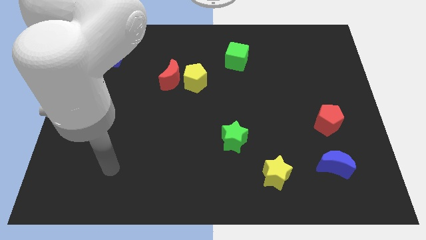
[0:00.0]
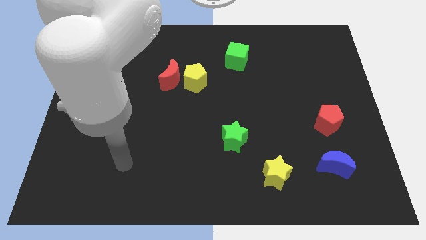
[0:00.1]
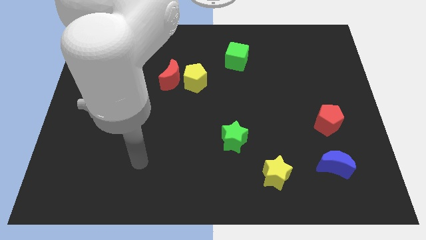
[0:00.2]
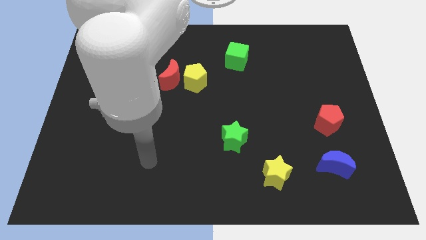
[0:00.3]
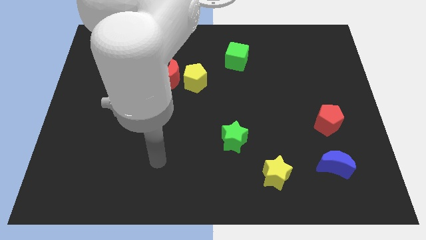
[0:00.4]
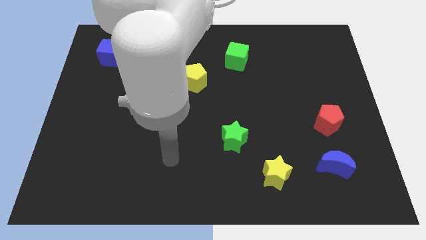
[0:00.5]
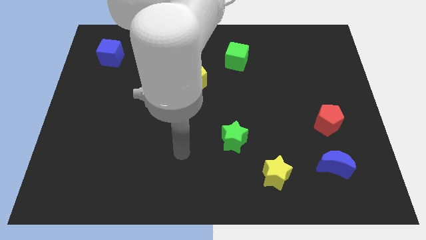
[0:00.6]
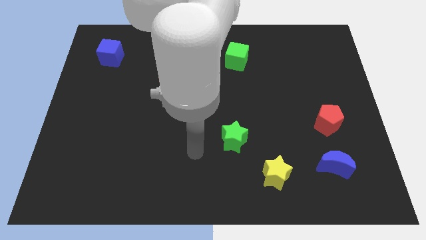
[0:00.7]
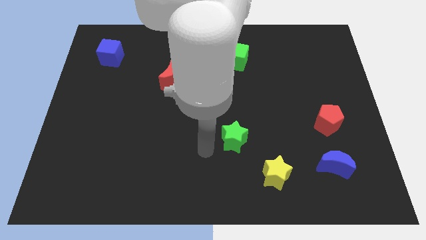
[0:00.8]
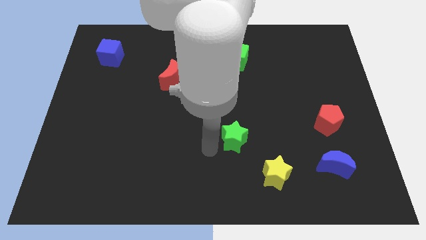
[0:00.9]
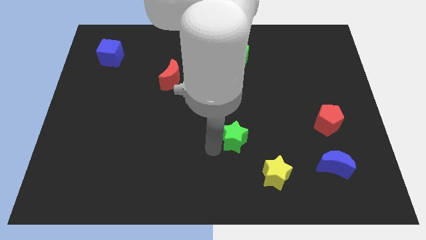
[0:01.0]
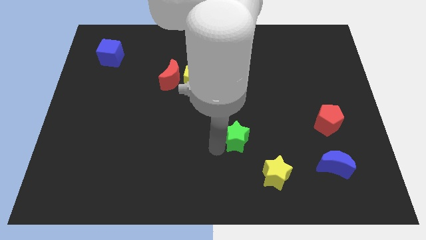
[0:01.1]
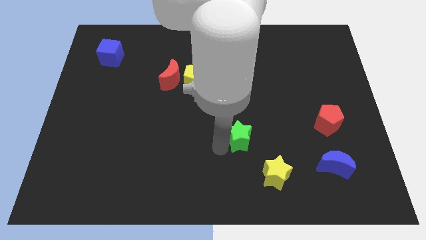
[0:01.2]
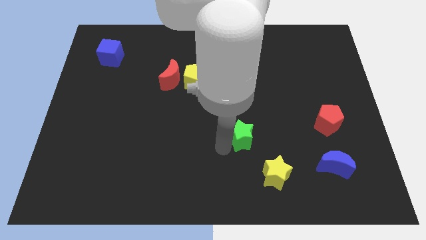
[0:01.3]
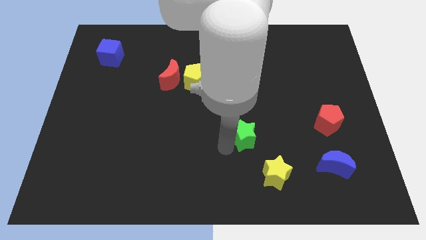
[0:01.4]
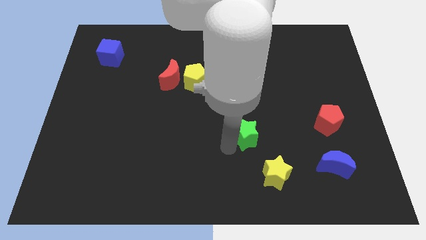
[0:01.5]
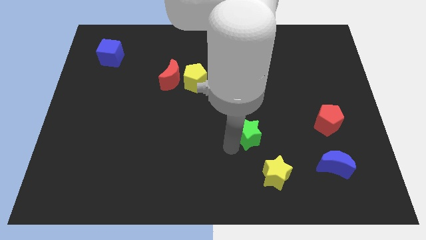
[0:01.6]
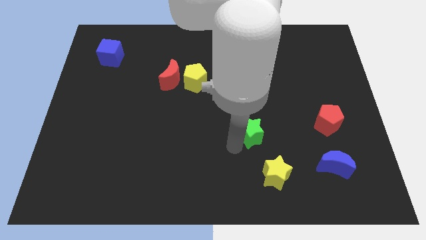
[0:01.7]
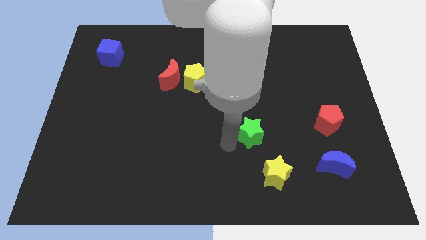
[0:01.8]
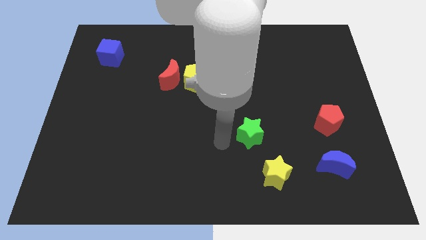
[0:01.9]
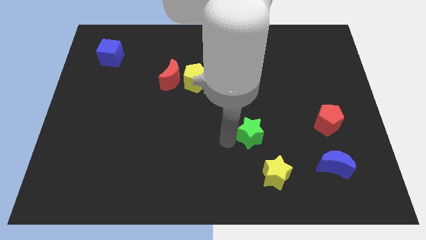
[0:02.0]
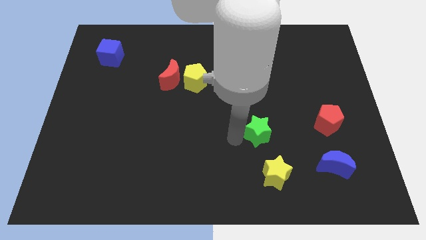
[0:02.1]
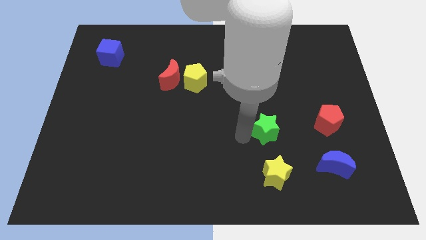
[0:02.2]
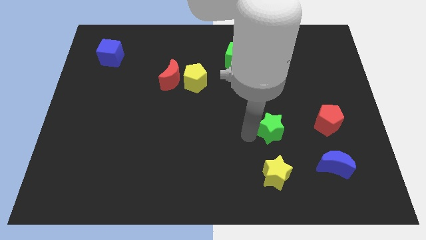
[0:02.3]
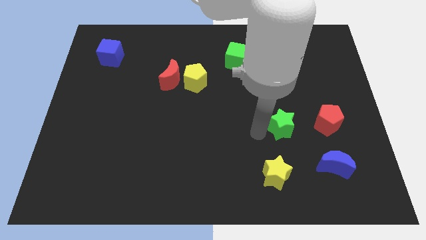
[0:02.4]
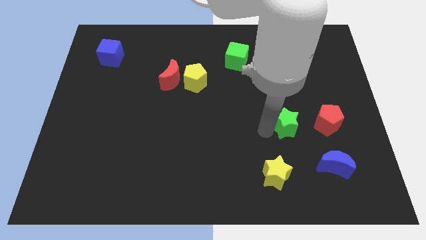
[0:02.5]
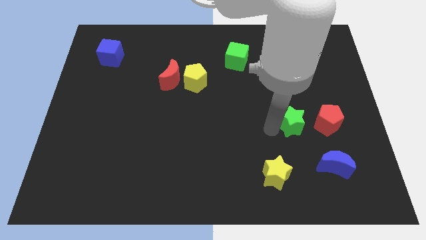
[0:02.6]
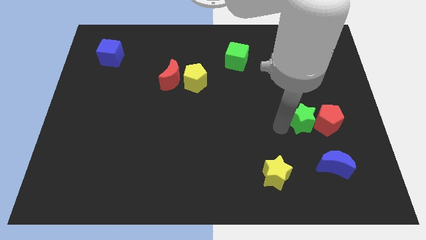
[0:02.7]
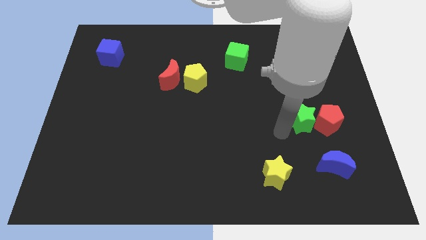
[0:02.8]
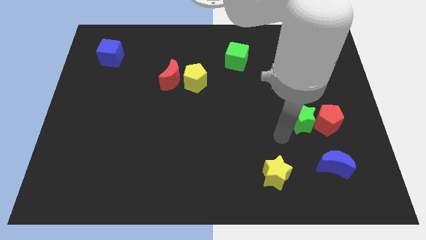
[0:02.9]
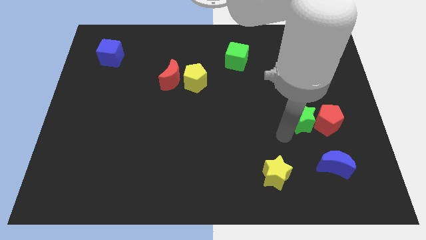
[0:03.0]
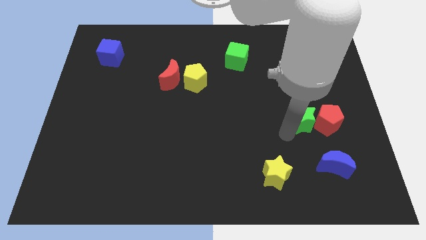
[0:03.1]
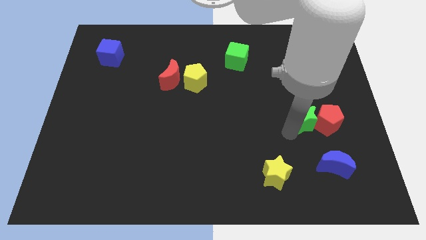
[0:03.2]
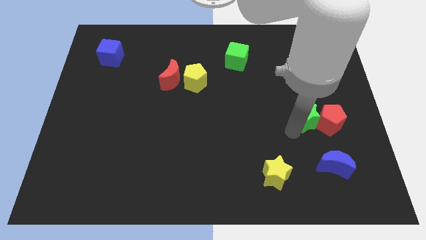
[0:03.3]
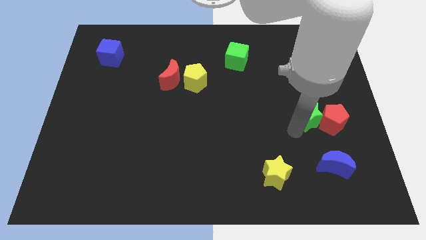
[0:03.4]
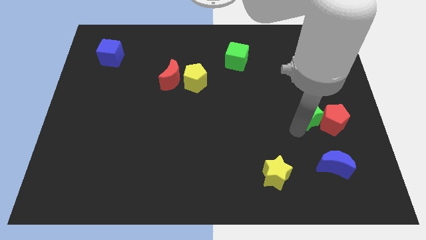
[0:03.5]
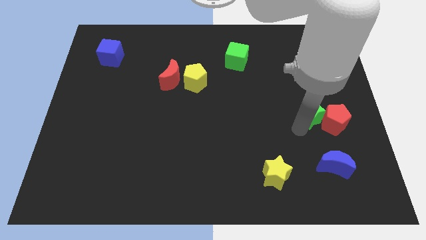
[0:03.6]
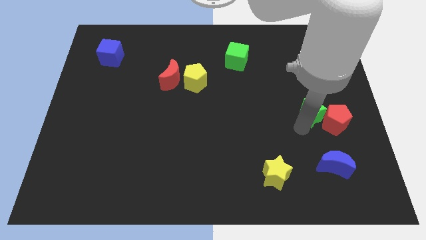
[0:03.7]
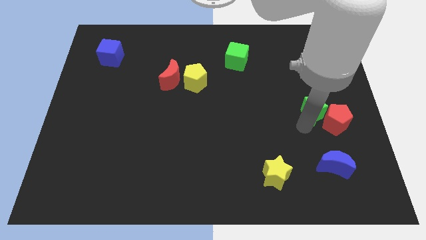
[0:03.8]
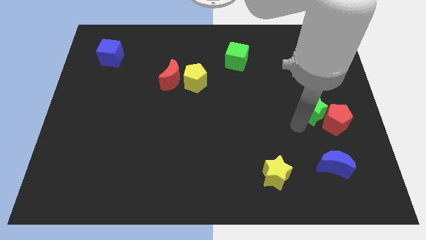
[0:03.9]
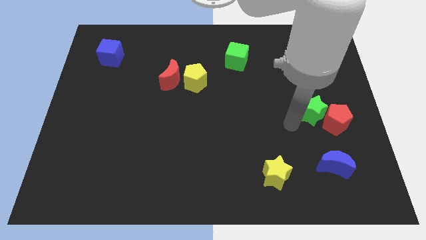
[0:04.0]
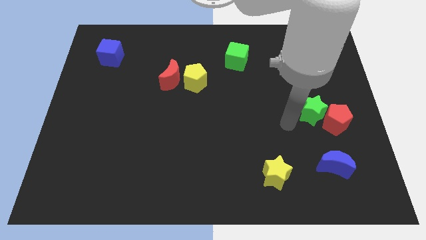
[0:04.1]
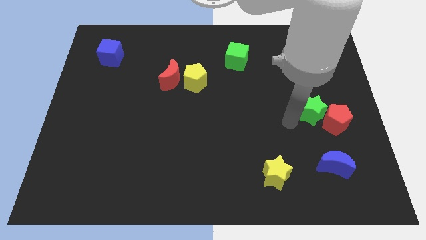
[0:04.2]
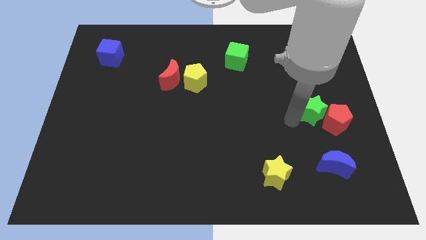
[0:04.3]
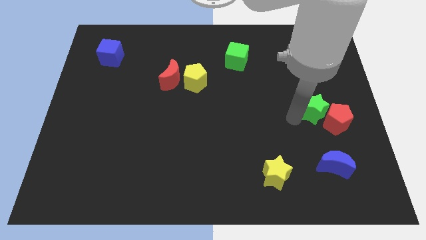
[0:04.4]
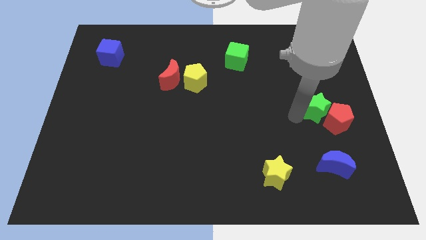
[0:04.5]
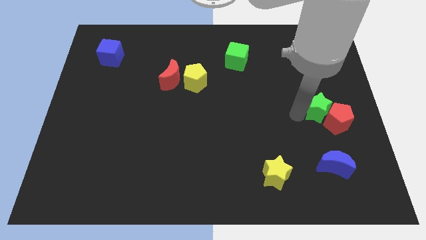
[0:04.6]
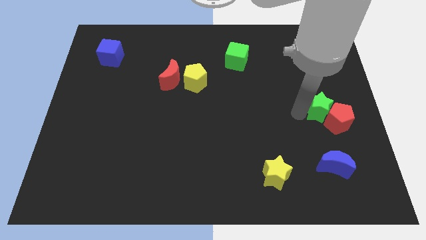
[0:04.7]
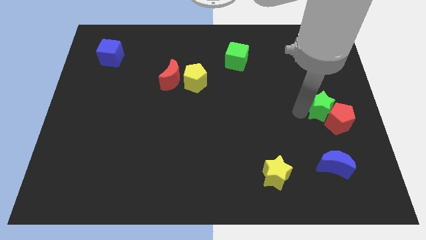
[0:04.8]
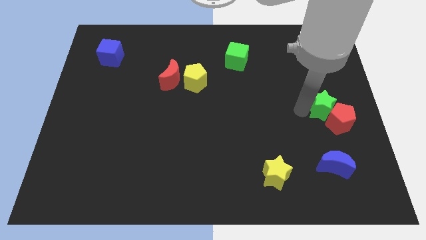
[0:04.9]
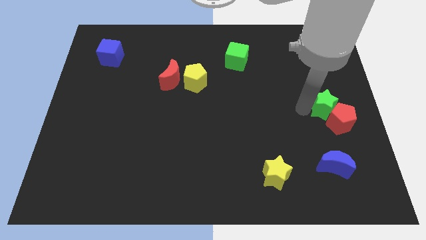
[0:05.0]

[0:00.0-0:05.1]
slide the green star to the right side of the board

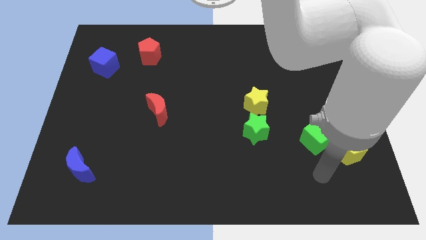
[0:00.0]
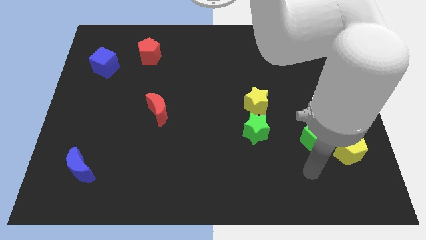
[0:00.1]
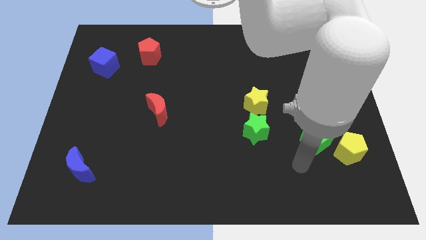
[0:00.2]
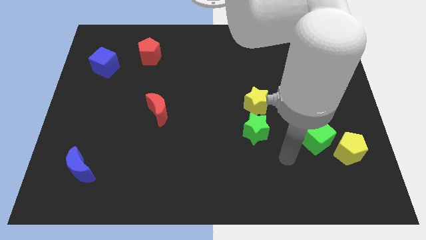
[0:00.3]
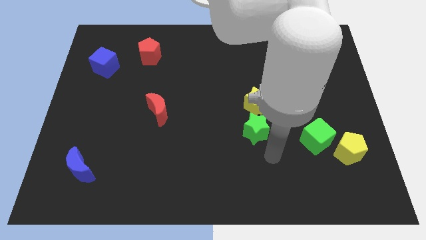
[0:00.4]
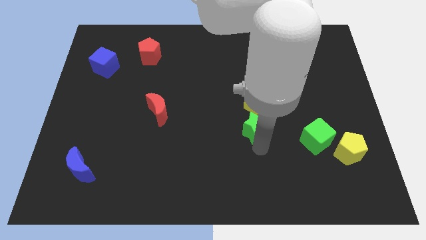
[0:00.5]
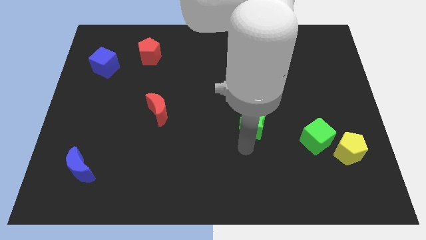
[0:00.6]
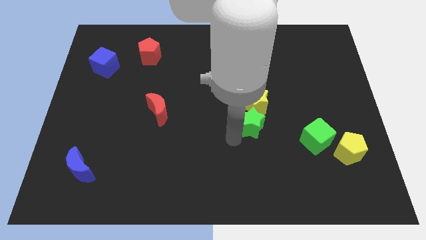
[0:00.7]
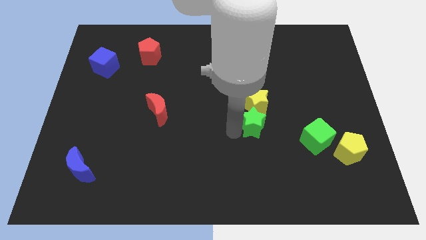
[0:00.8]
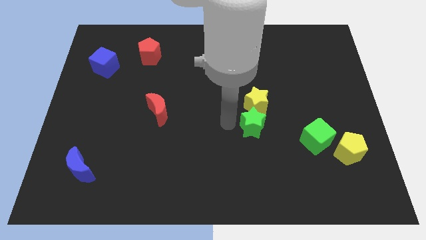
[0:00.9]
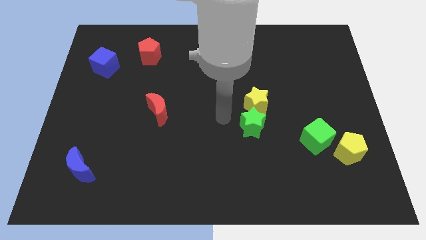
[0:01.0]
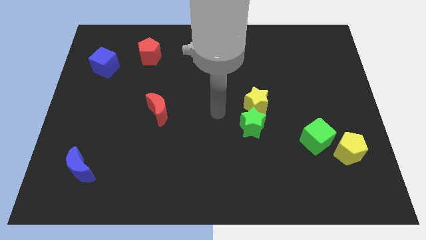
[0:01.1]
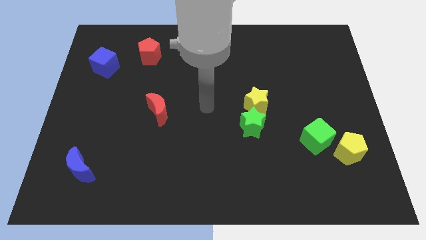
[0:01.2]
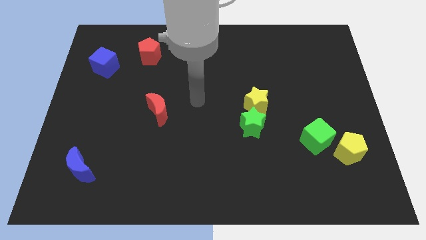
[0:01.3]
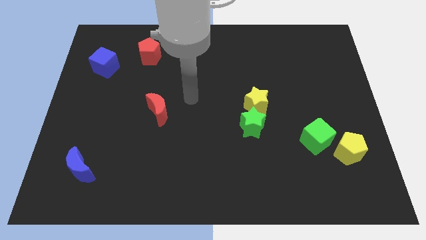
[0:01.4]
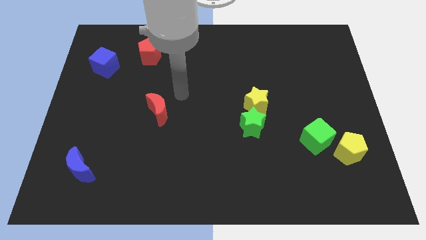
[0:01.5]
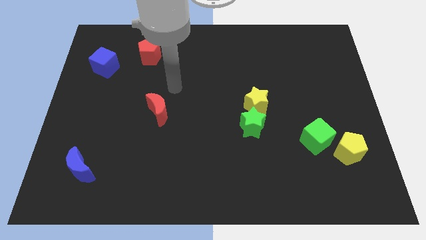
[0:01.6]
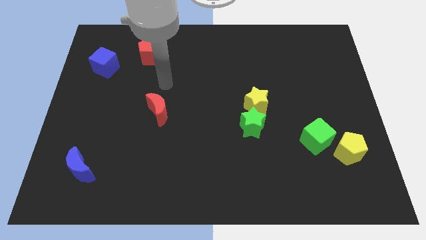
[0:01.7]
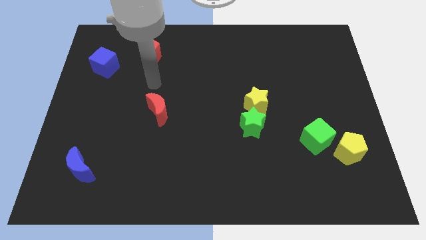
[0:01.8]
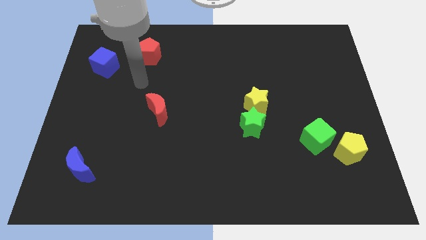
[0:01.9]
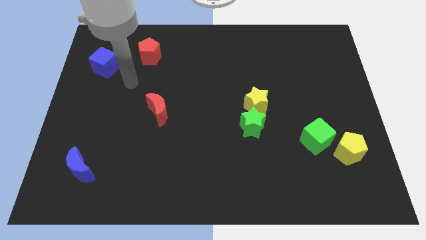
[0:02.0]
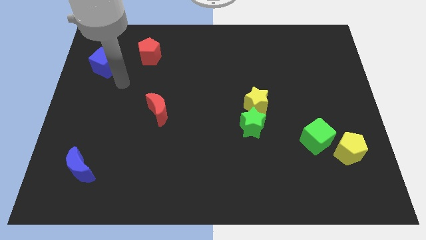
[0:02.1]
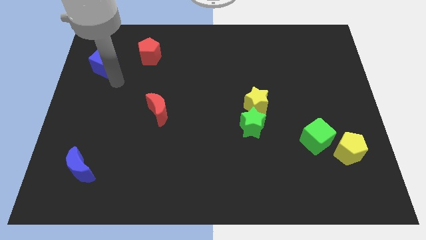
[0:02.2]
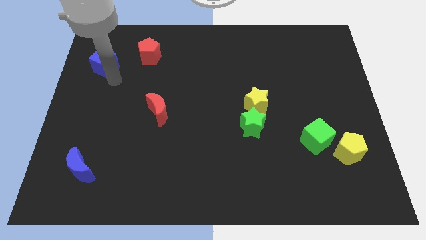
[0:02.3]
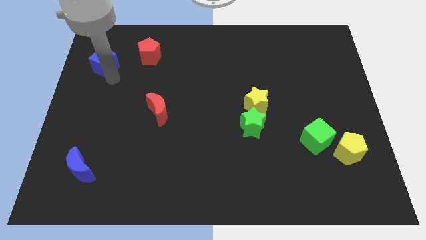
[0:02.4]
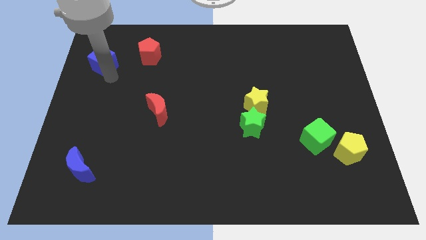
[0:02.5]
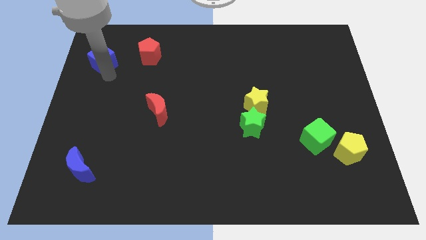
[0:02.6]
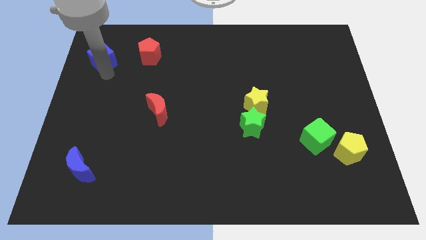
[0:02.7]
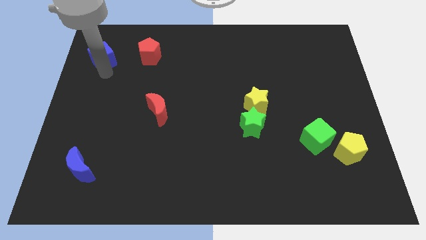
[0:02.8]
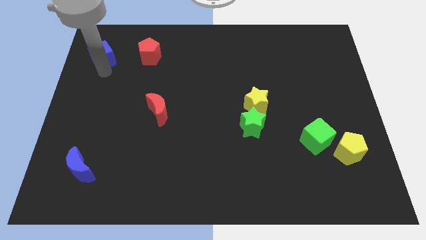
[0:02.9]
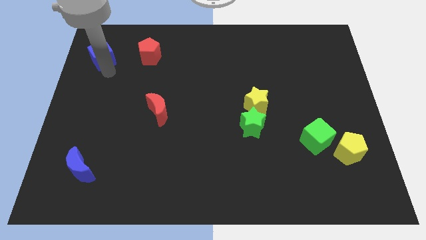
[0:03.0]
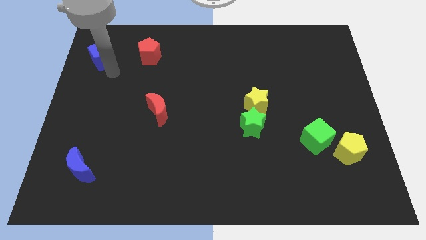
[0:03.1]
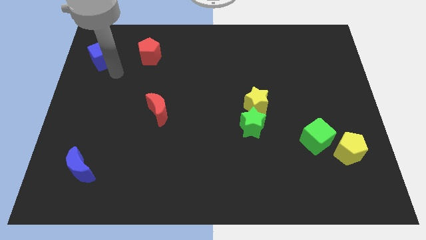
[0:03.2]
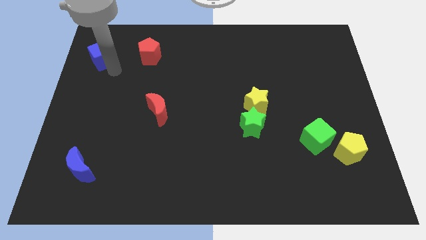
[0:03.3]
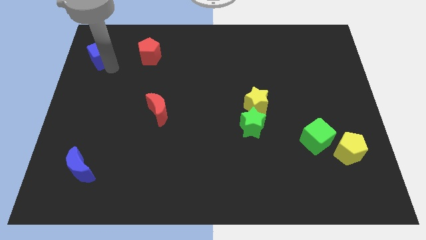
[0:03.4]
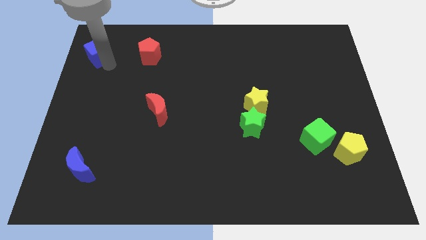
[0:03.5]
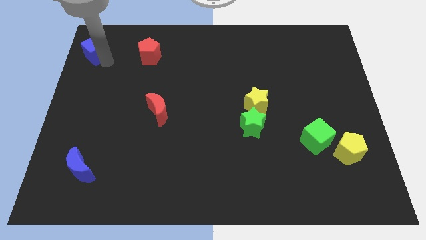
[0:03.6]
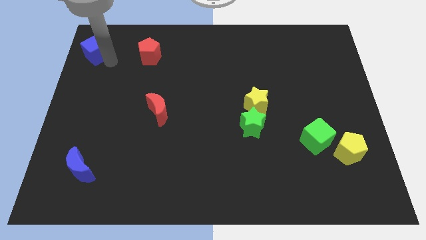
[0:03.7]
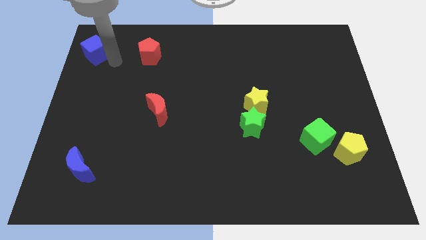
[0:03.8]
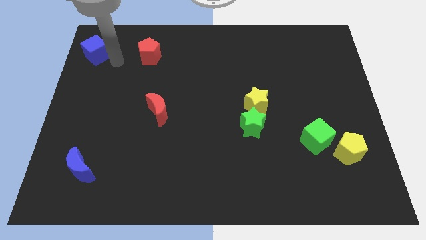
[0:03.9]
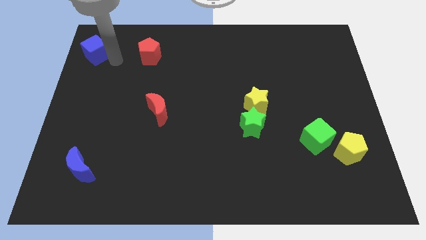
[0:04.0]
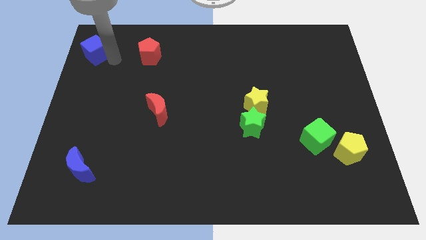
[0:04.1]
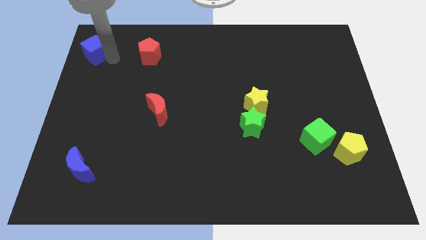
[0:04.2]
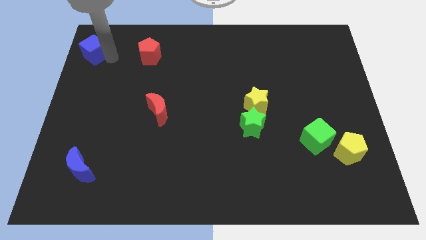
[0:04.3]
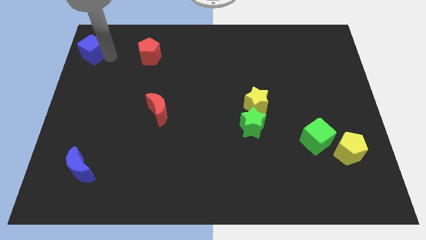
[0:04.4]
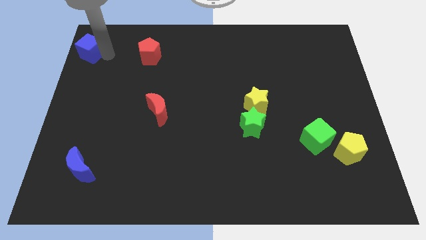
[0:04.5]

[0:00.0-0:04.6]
slide the blue cube to the upper left corner
